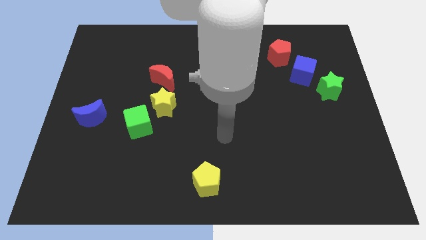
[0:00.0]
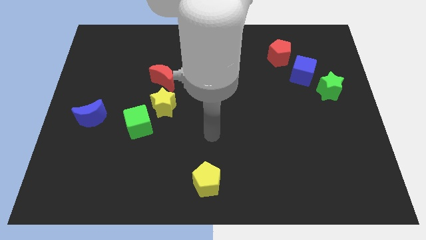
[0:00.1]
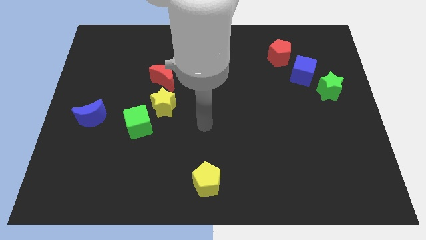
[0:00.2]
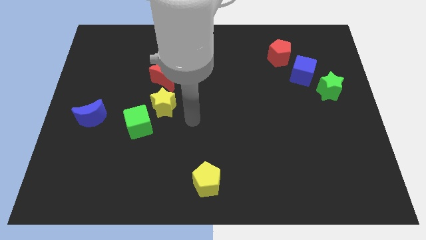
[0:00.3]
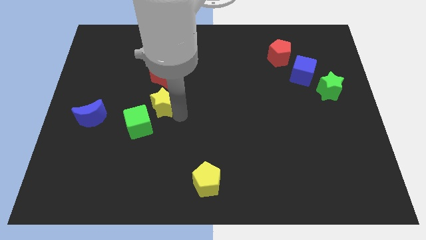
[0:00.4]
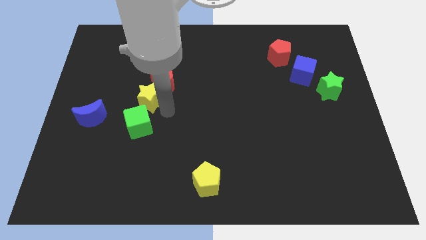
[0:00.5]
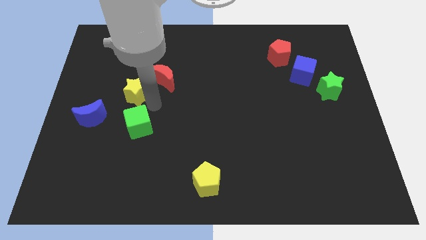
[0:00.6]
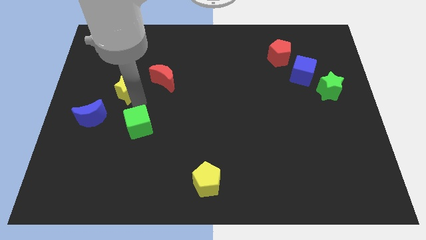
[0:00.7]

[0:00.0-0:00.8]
pull the green cube apart from the yellow star

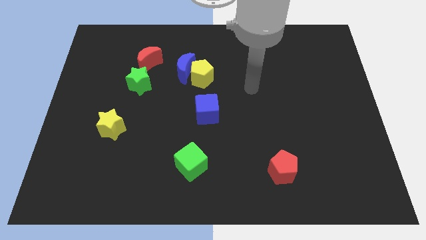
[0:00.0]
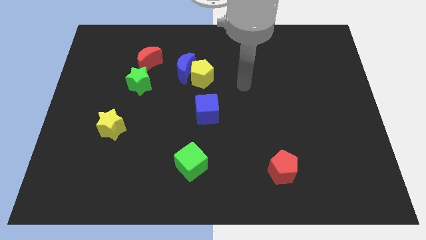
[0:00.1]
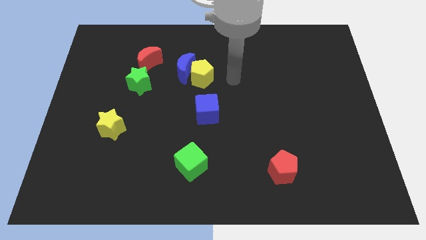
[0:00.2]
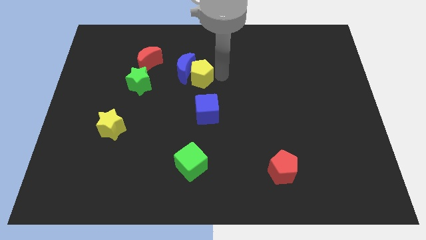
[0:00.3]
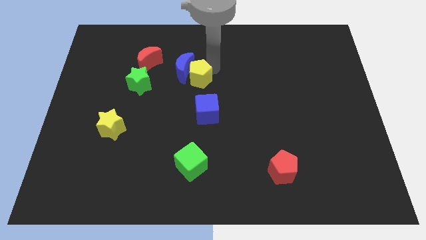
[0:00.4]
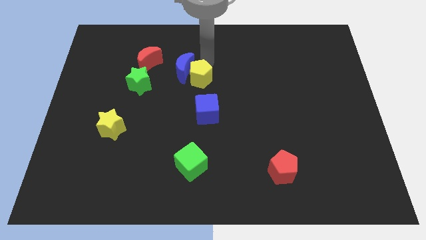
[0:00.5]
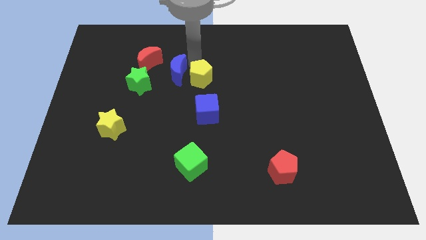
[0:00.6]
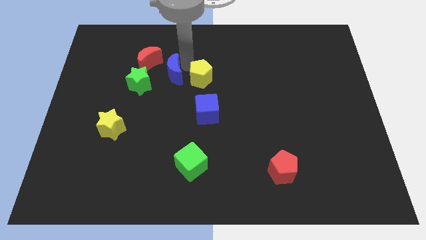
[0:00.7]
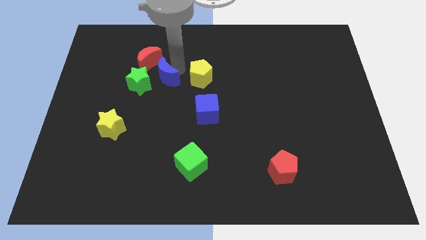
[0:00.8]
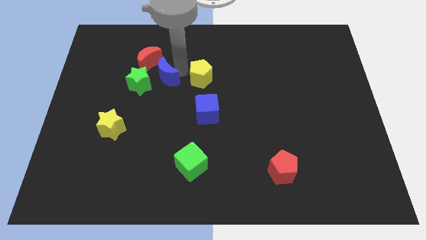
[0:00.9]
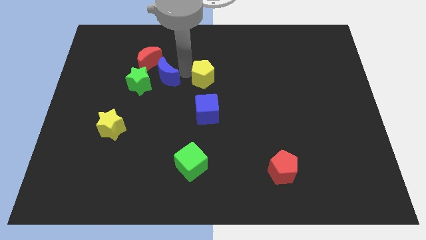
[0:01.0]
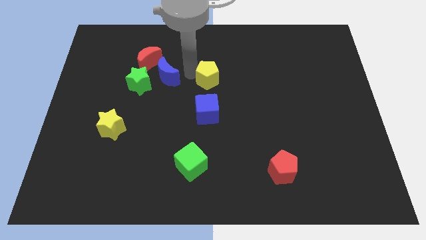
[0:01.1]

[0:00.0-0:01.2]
move the yellow pentagon away from the blue moon

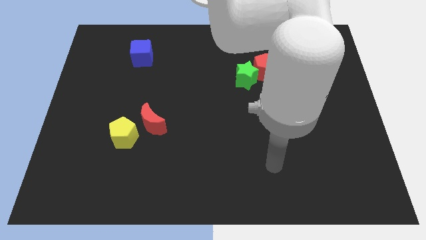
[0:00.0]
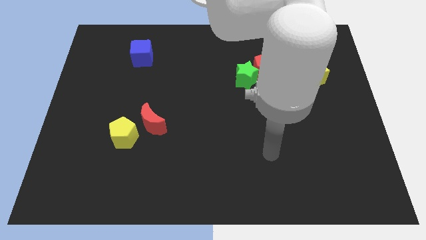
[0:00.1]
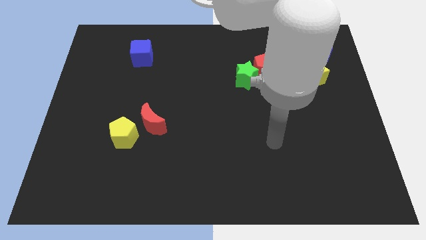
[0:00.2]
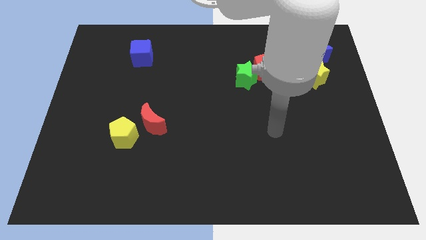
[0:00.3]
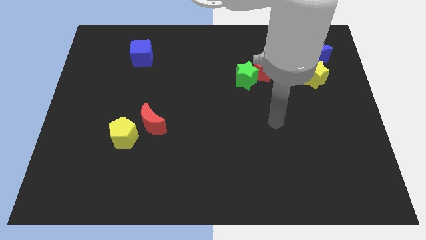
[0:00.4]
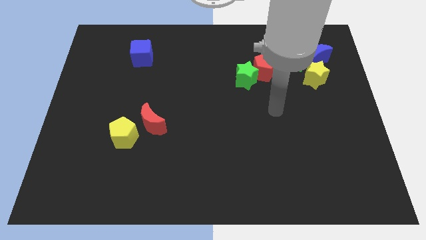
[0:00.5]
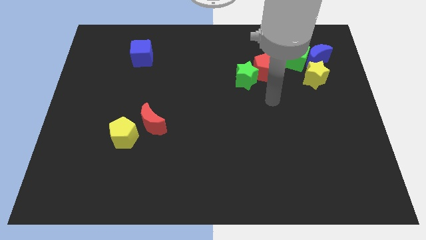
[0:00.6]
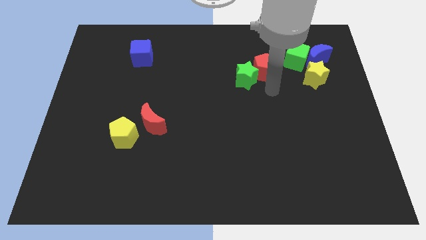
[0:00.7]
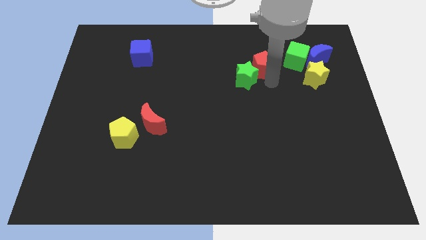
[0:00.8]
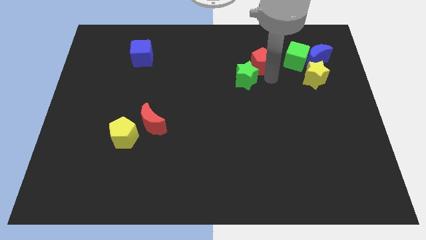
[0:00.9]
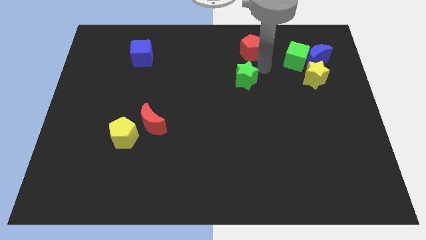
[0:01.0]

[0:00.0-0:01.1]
separate the green star from the red pentagon

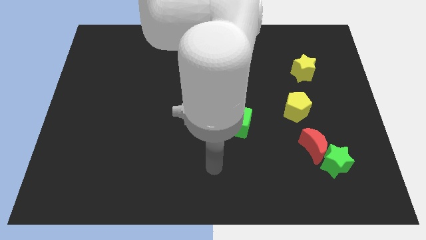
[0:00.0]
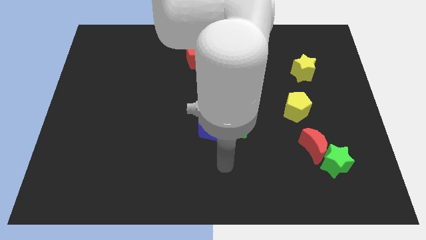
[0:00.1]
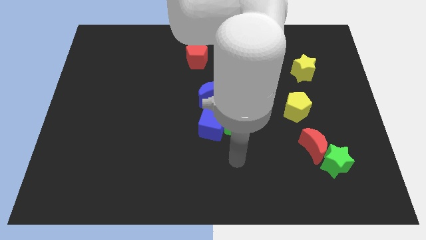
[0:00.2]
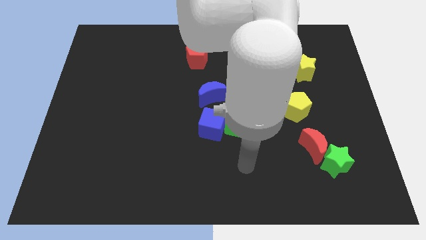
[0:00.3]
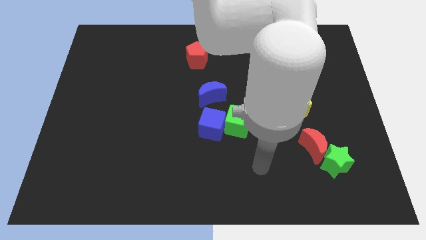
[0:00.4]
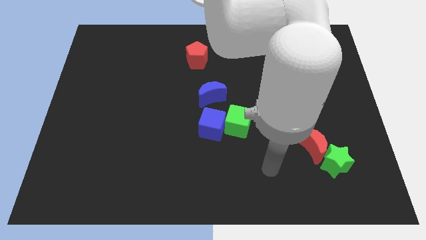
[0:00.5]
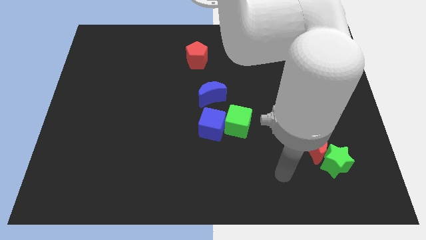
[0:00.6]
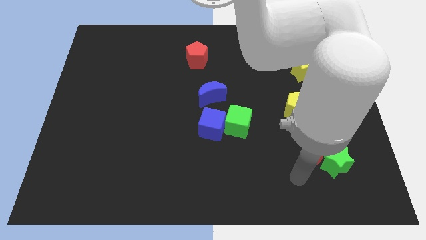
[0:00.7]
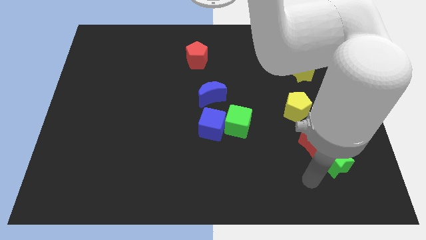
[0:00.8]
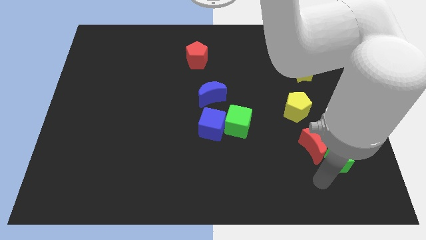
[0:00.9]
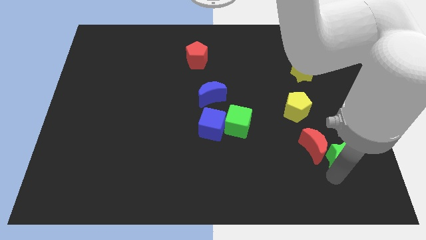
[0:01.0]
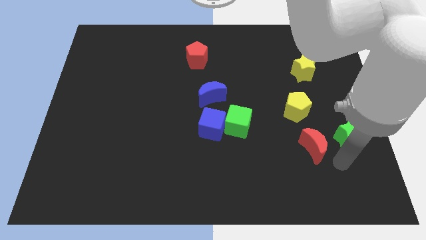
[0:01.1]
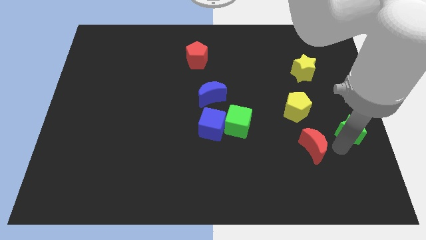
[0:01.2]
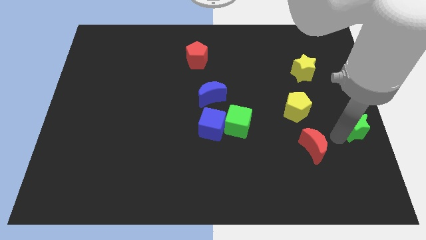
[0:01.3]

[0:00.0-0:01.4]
move the red moon away from the green star

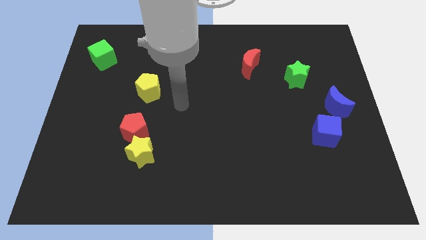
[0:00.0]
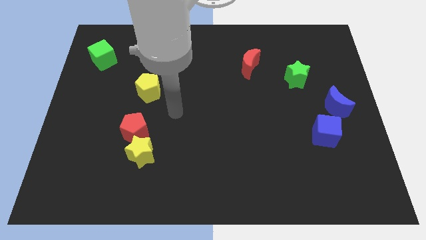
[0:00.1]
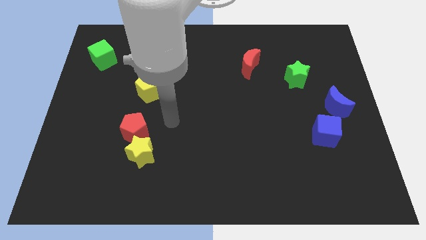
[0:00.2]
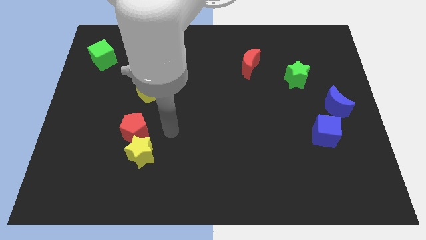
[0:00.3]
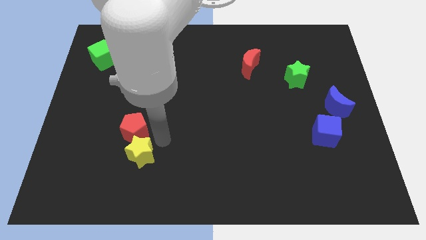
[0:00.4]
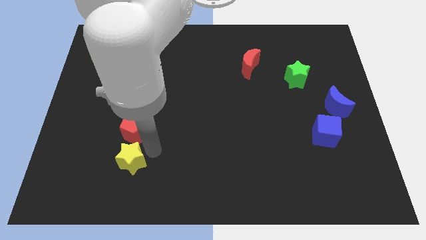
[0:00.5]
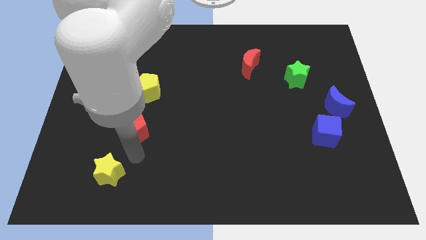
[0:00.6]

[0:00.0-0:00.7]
move the red pentagon away from the yellow star

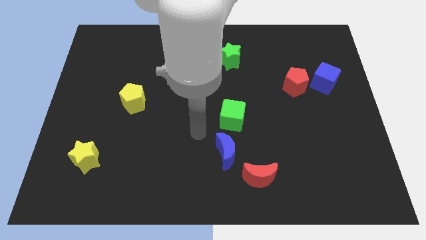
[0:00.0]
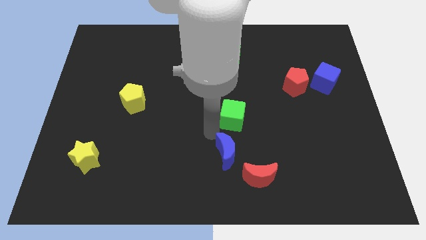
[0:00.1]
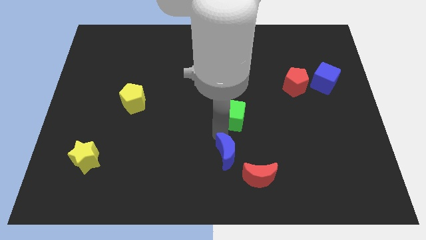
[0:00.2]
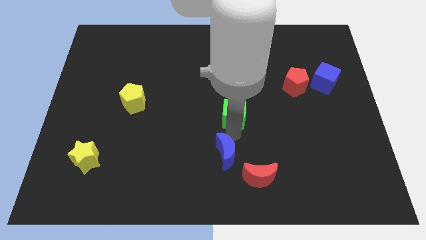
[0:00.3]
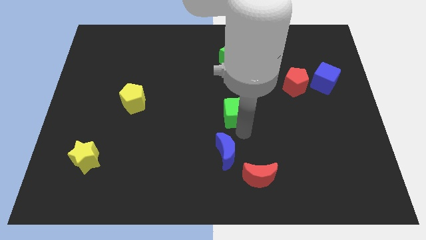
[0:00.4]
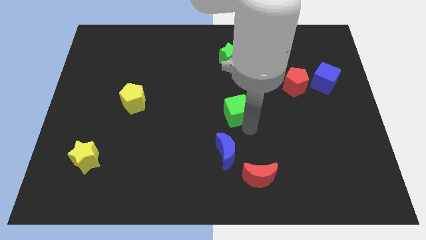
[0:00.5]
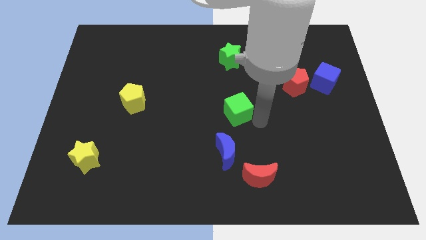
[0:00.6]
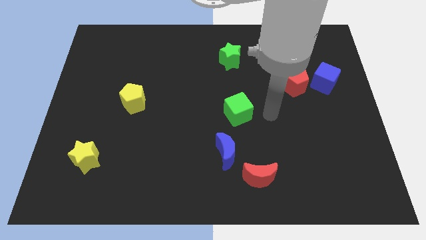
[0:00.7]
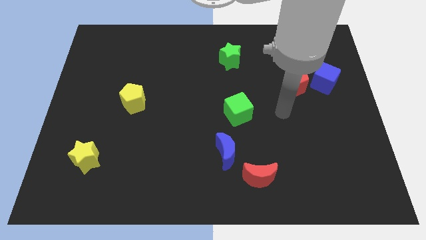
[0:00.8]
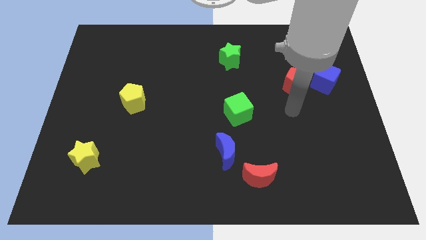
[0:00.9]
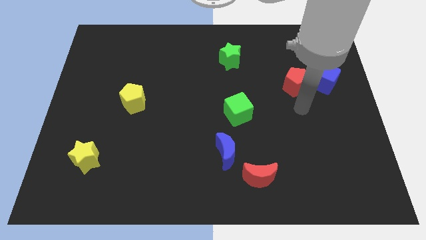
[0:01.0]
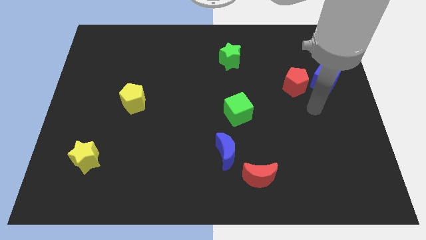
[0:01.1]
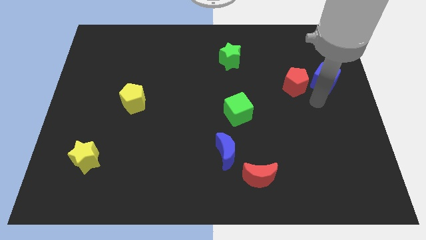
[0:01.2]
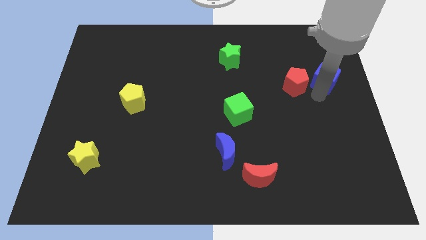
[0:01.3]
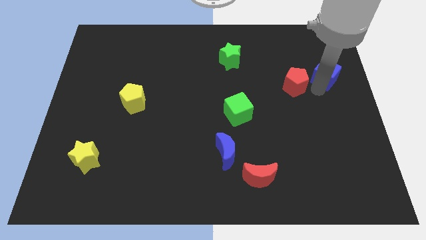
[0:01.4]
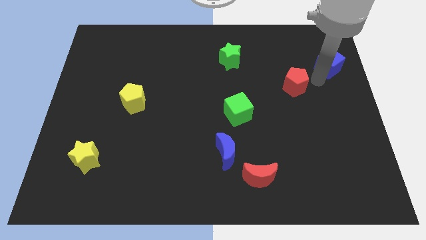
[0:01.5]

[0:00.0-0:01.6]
move the red pentagon away from the blue cube

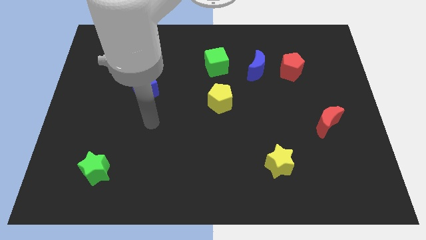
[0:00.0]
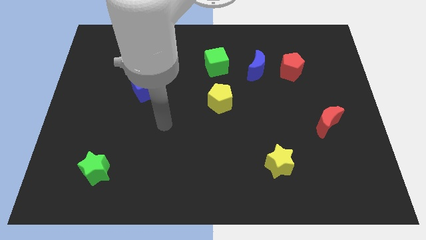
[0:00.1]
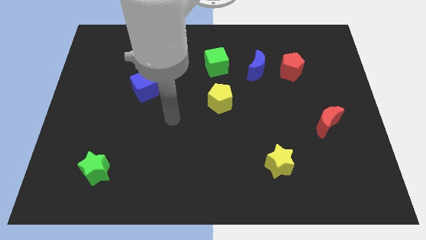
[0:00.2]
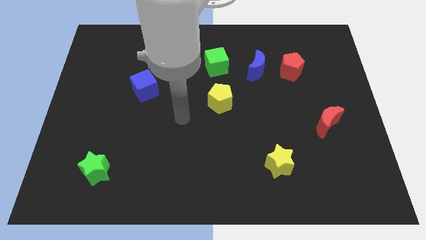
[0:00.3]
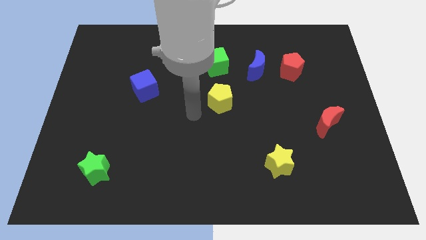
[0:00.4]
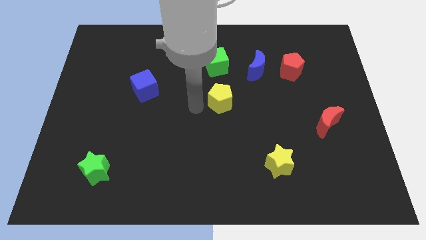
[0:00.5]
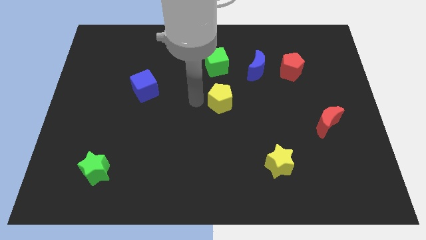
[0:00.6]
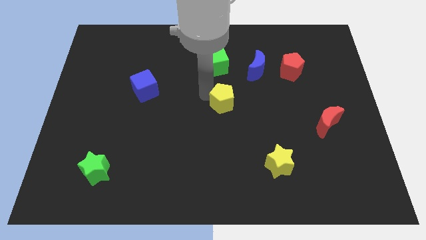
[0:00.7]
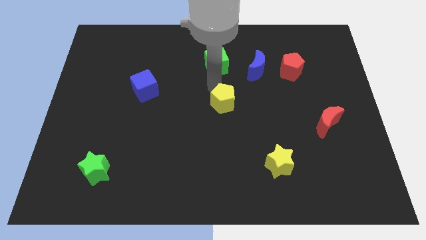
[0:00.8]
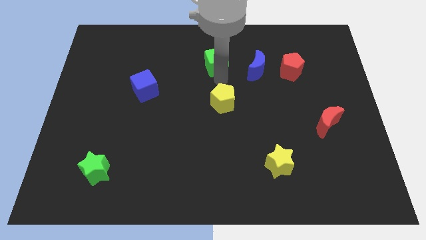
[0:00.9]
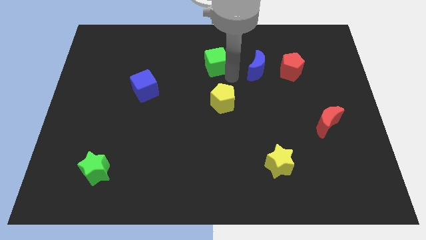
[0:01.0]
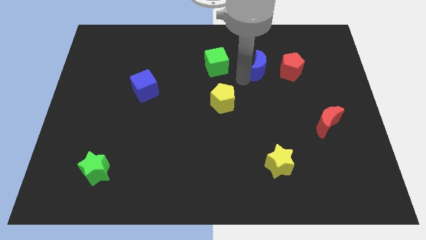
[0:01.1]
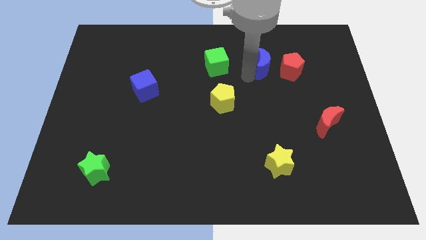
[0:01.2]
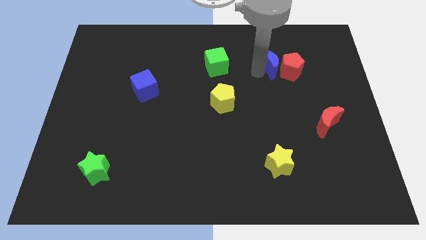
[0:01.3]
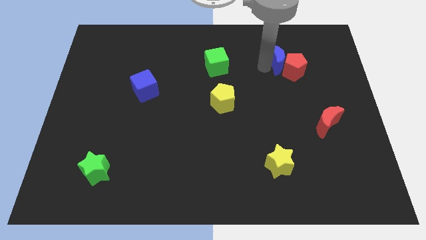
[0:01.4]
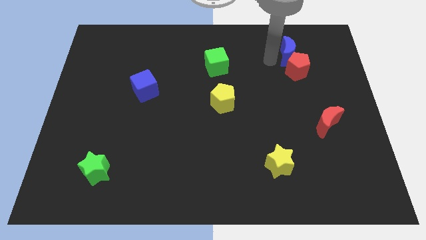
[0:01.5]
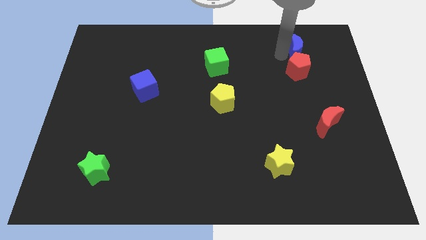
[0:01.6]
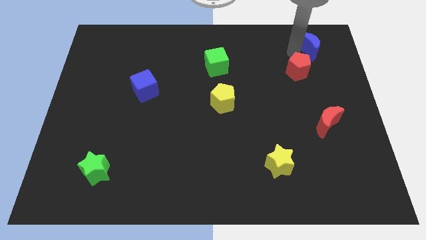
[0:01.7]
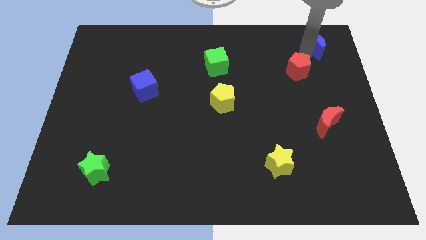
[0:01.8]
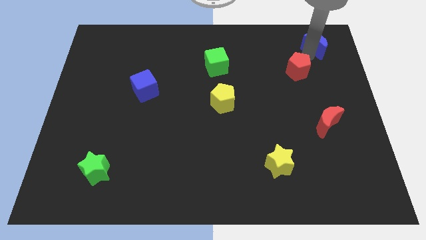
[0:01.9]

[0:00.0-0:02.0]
separate the red pentagon from the blue moon

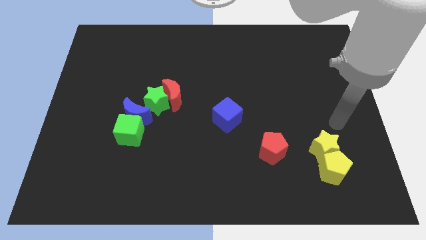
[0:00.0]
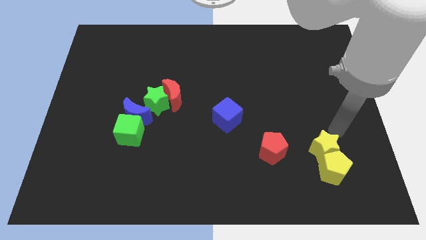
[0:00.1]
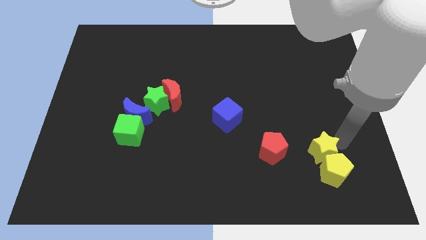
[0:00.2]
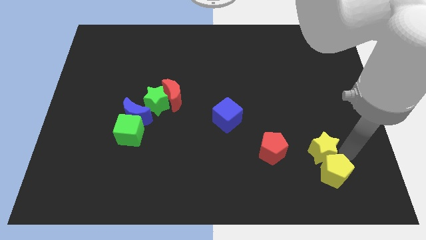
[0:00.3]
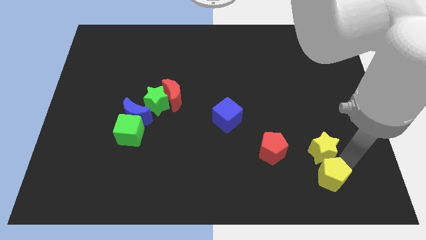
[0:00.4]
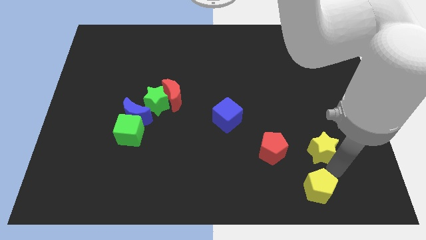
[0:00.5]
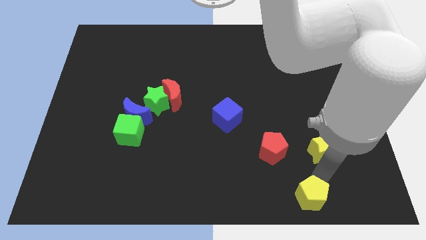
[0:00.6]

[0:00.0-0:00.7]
separate the yellow star from the yellow pentagon
